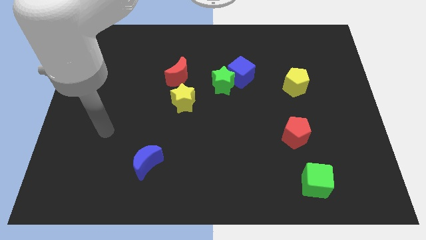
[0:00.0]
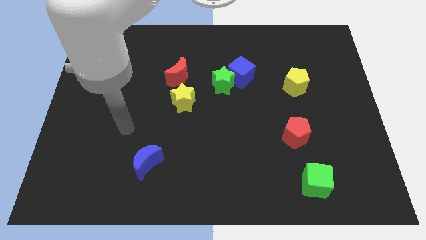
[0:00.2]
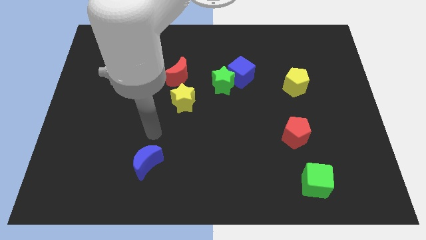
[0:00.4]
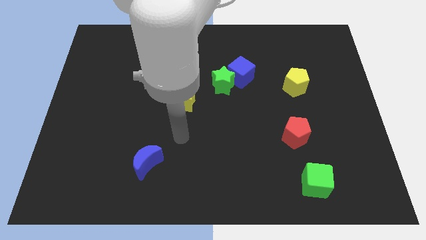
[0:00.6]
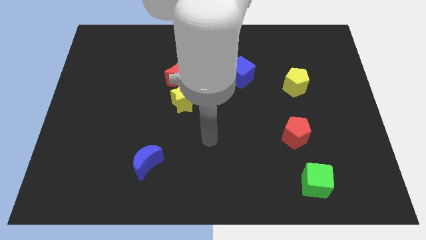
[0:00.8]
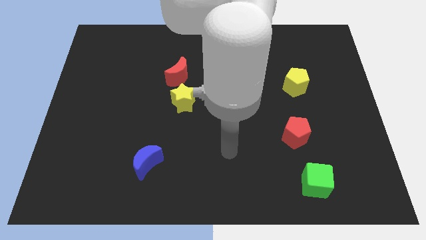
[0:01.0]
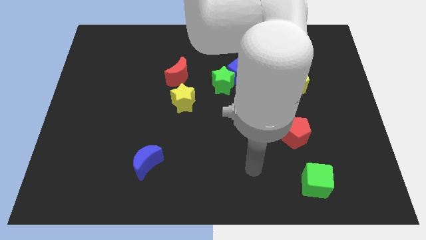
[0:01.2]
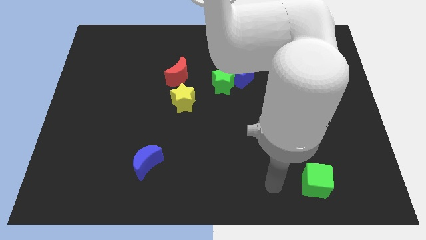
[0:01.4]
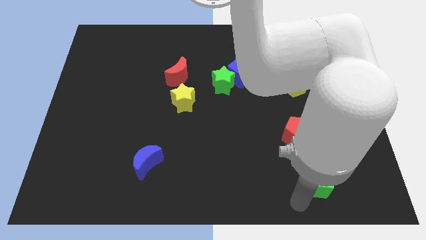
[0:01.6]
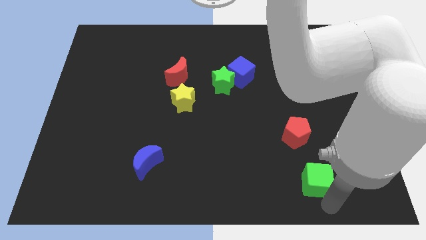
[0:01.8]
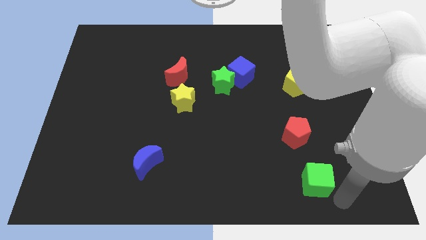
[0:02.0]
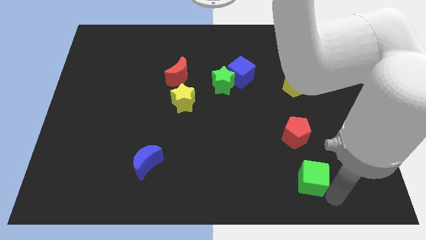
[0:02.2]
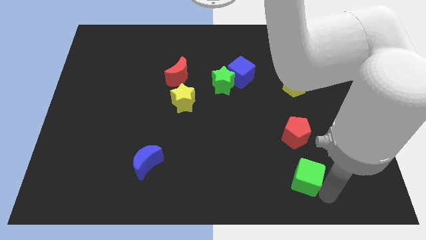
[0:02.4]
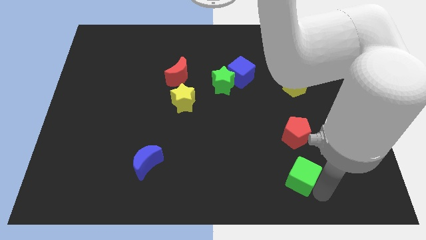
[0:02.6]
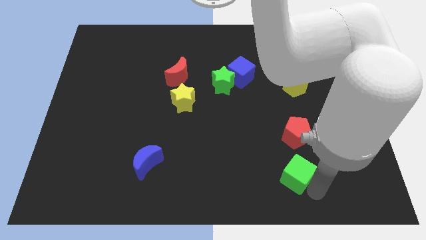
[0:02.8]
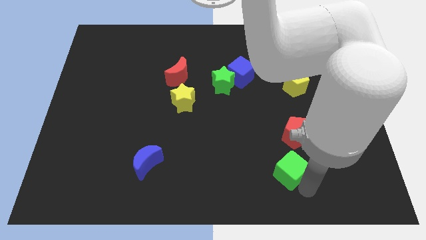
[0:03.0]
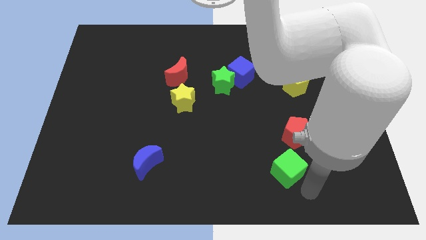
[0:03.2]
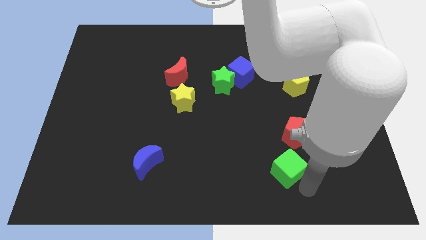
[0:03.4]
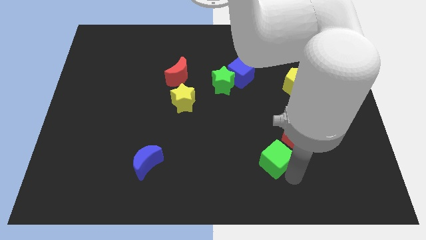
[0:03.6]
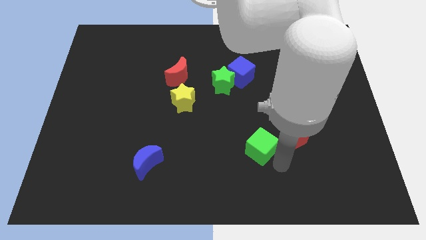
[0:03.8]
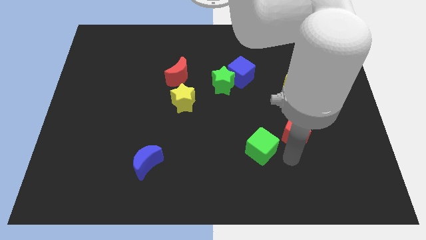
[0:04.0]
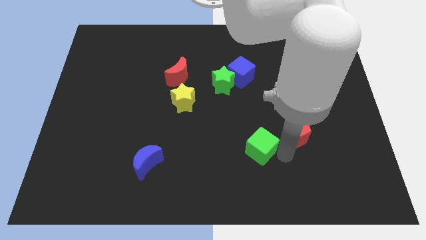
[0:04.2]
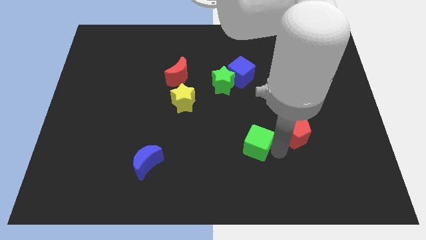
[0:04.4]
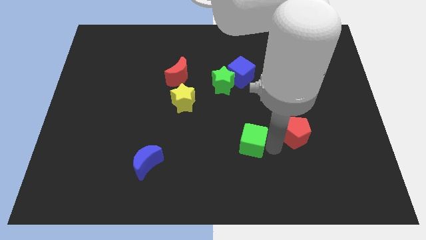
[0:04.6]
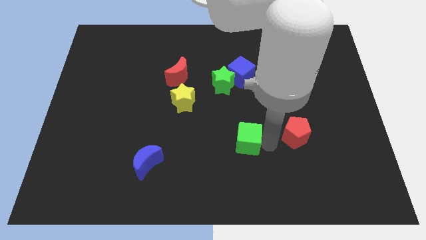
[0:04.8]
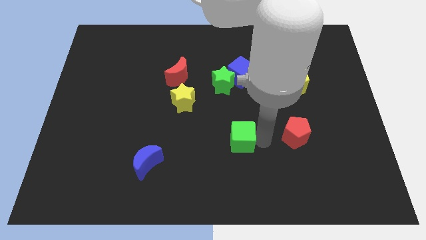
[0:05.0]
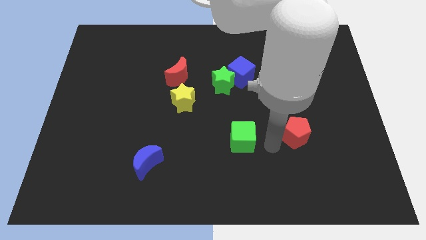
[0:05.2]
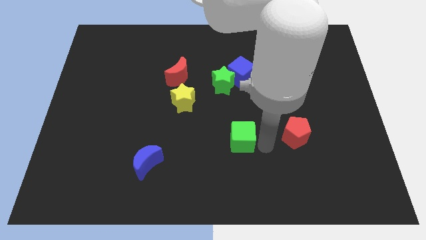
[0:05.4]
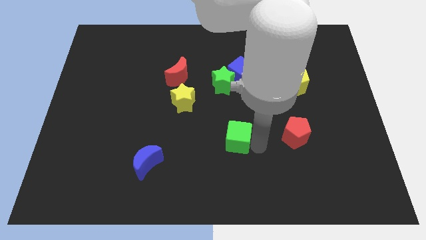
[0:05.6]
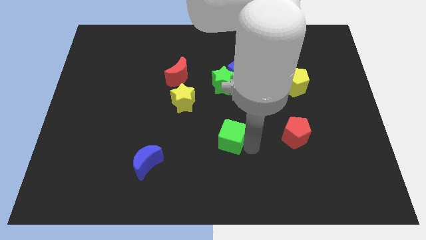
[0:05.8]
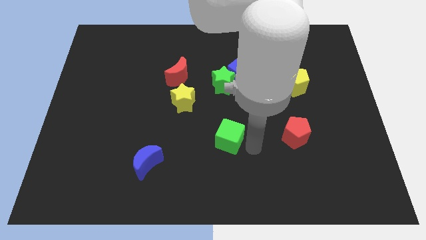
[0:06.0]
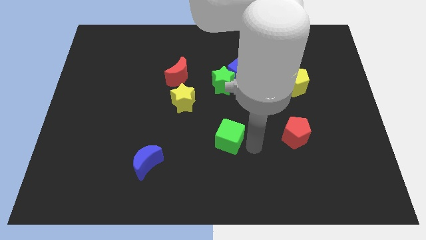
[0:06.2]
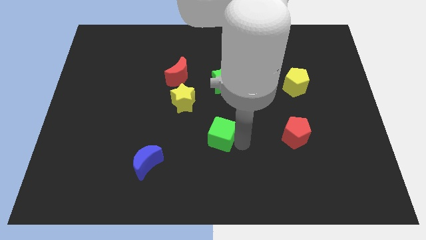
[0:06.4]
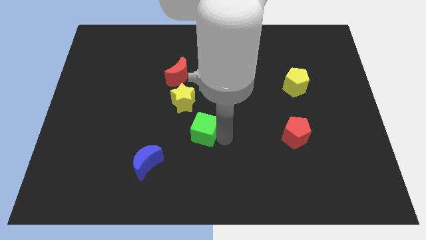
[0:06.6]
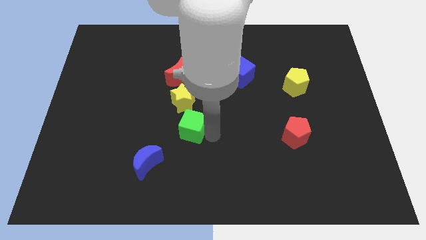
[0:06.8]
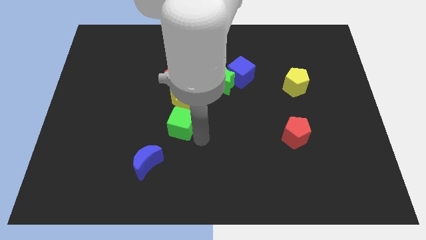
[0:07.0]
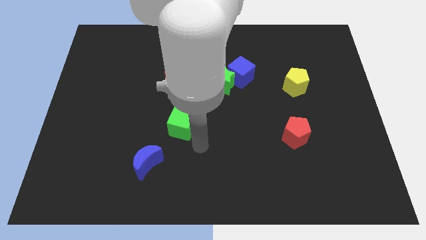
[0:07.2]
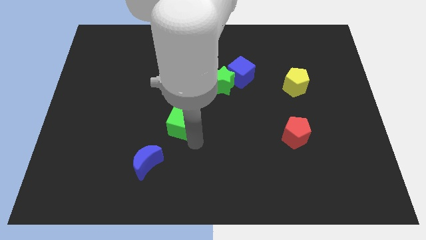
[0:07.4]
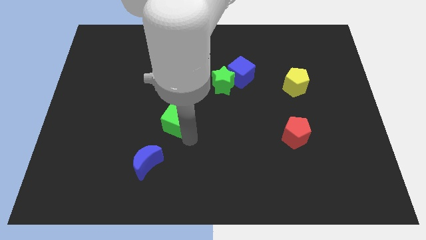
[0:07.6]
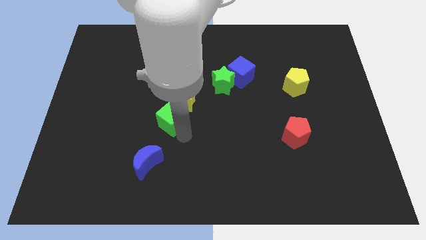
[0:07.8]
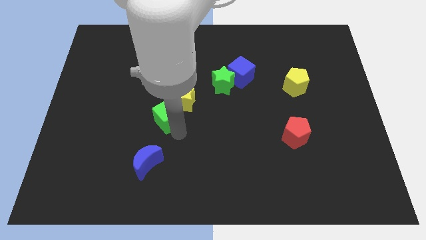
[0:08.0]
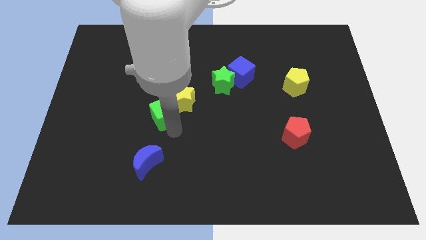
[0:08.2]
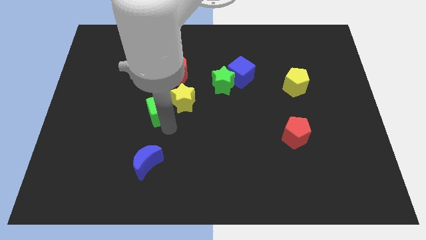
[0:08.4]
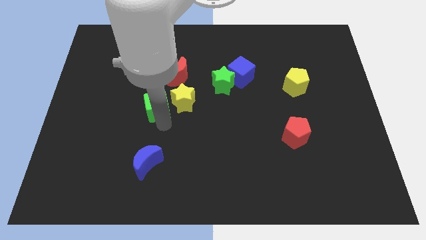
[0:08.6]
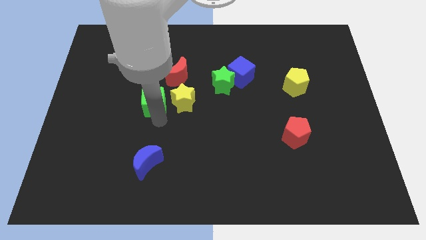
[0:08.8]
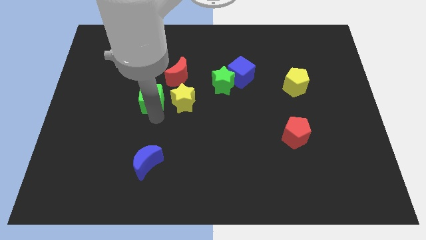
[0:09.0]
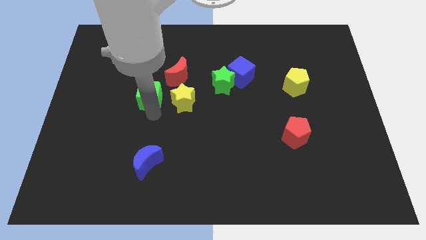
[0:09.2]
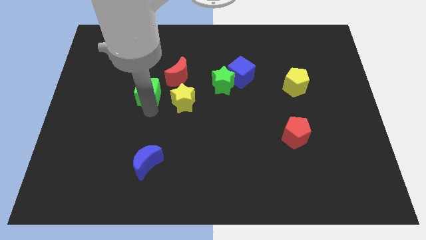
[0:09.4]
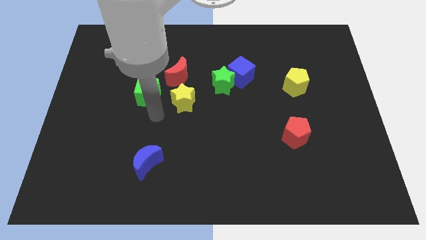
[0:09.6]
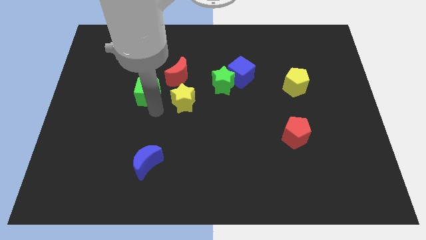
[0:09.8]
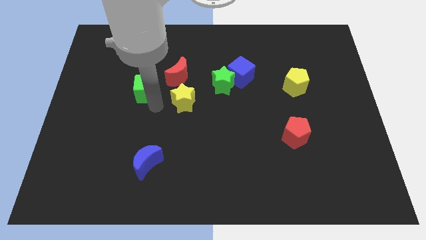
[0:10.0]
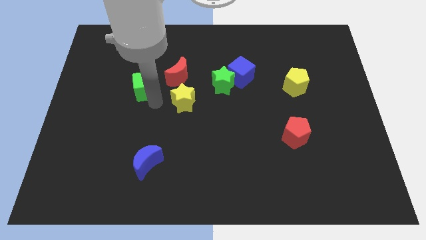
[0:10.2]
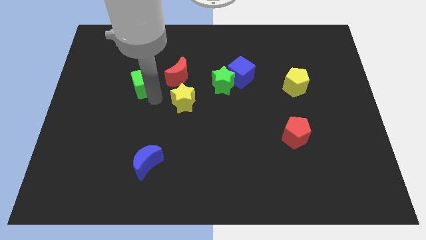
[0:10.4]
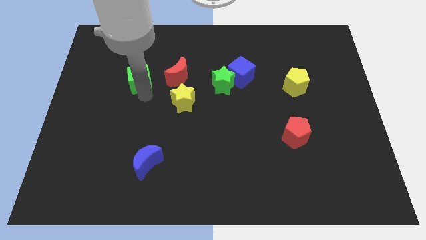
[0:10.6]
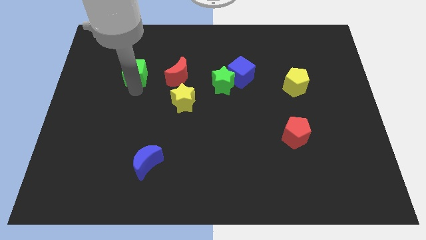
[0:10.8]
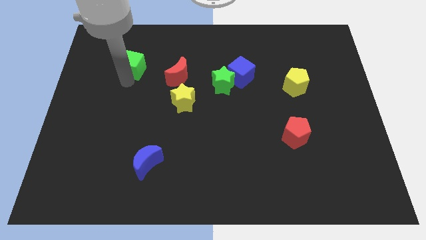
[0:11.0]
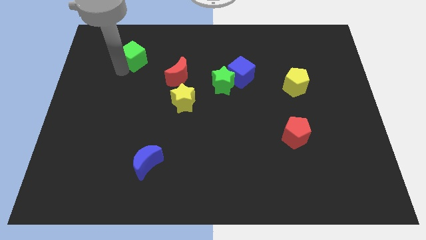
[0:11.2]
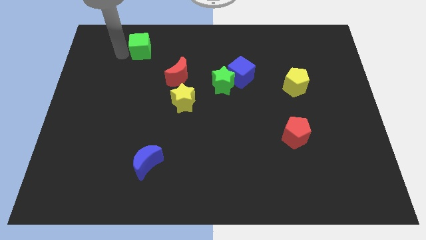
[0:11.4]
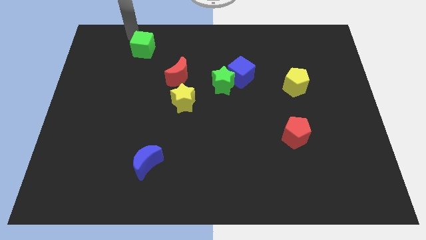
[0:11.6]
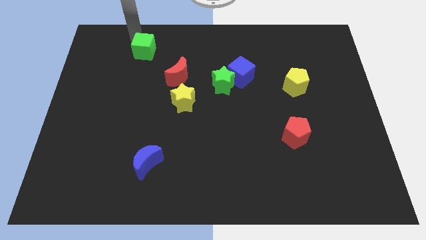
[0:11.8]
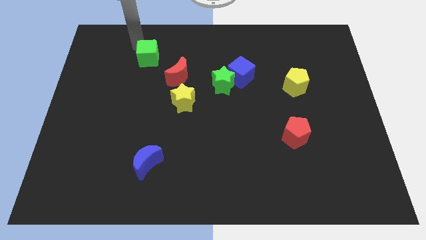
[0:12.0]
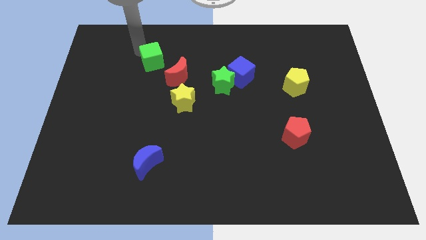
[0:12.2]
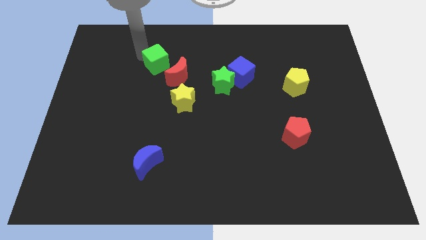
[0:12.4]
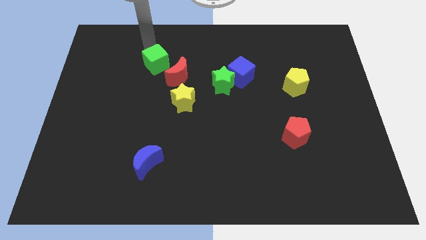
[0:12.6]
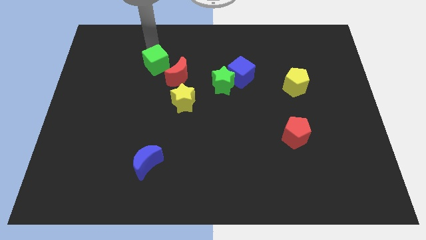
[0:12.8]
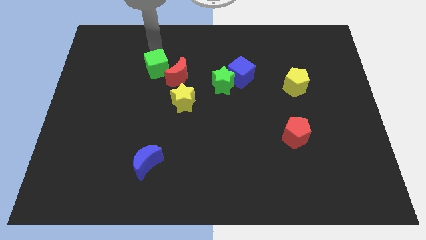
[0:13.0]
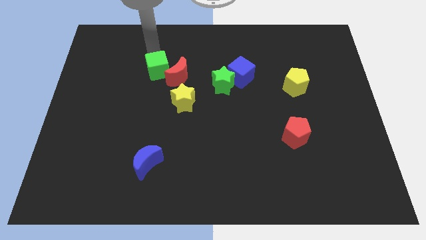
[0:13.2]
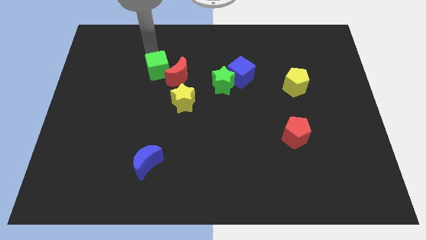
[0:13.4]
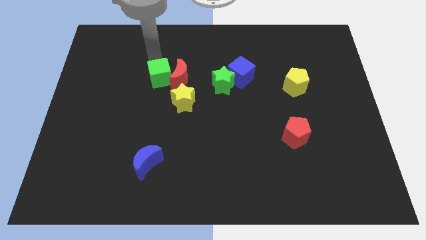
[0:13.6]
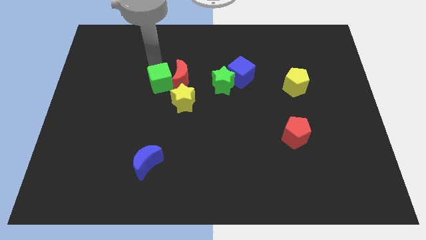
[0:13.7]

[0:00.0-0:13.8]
move the green cube to the left of the green star
